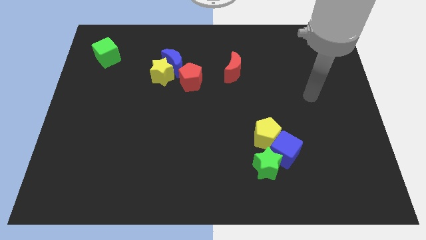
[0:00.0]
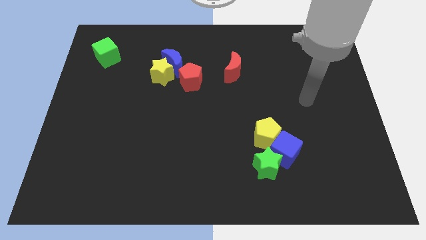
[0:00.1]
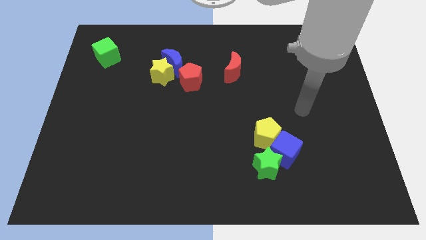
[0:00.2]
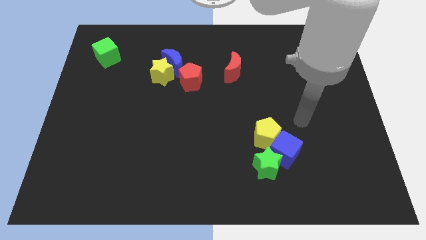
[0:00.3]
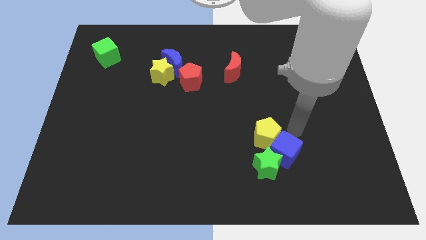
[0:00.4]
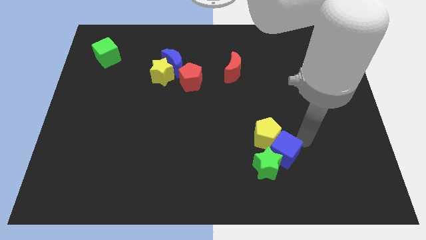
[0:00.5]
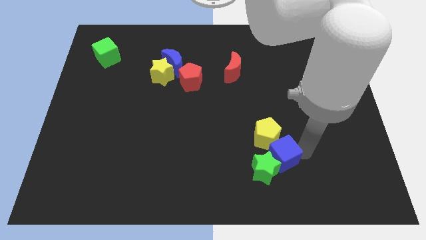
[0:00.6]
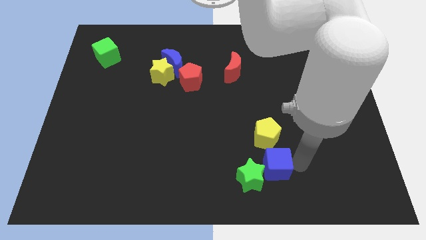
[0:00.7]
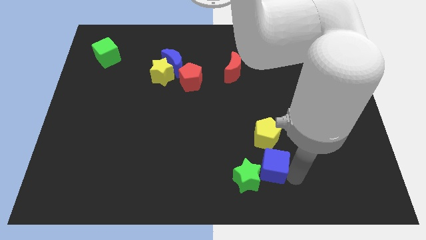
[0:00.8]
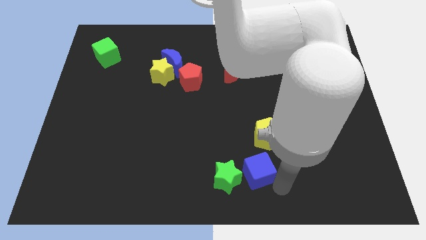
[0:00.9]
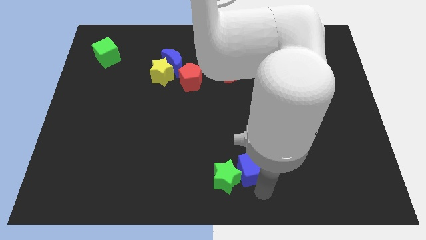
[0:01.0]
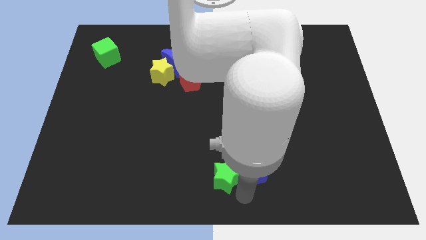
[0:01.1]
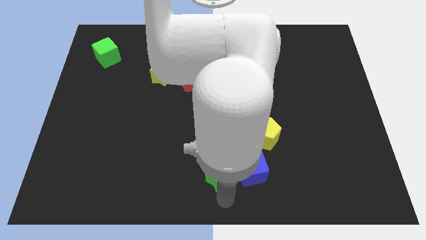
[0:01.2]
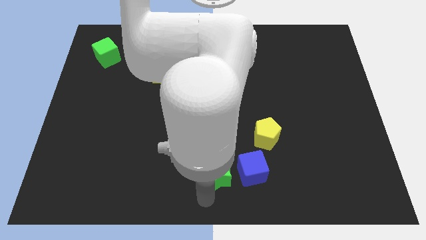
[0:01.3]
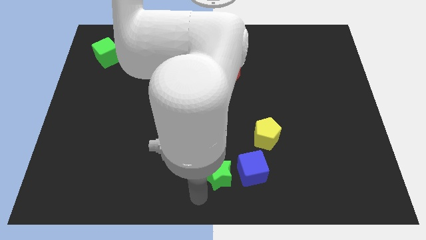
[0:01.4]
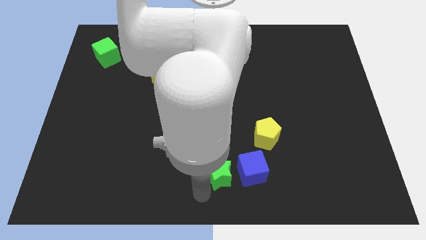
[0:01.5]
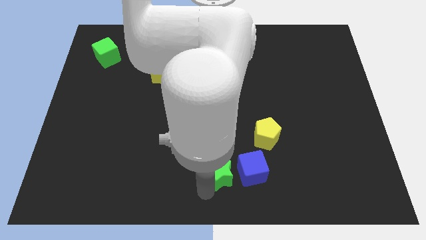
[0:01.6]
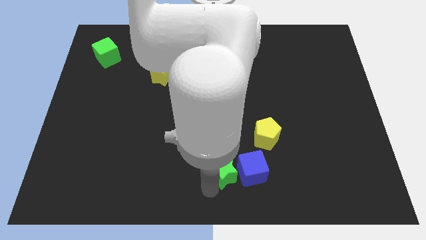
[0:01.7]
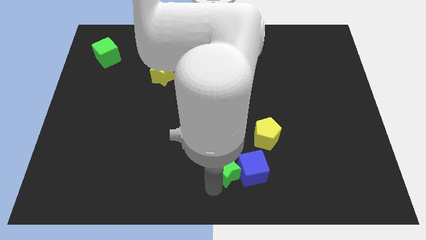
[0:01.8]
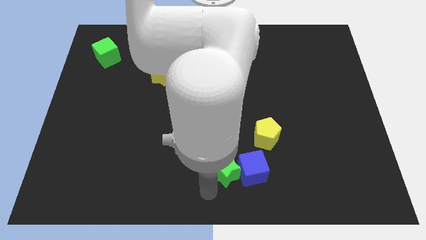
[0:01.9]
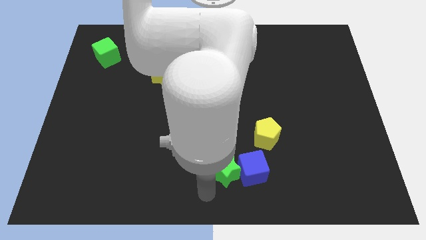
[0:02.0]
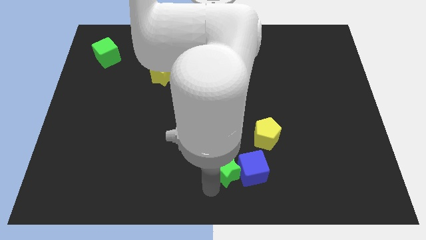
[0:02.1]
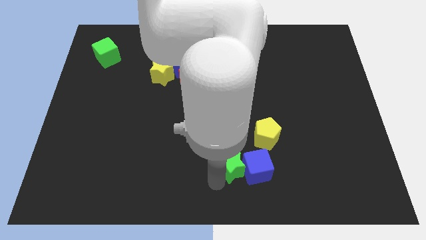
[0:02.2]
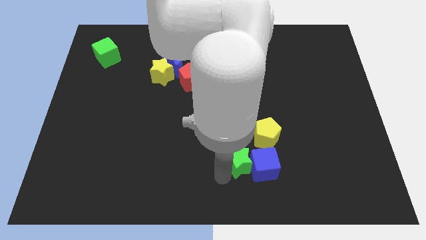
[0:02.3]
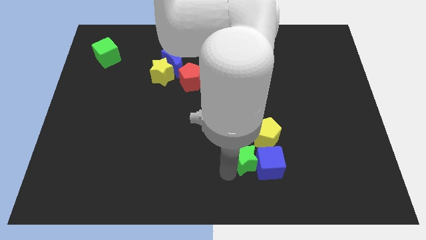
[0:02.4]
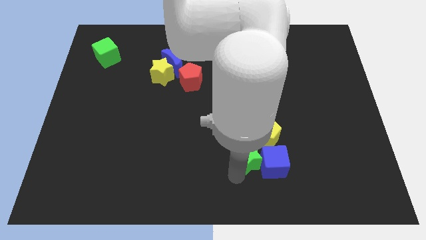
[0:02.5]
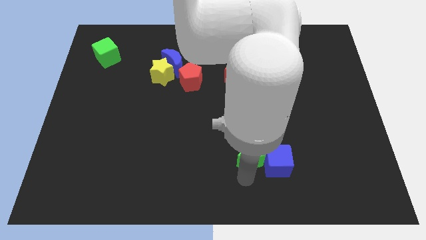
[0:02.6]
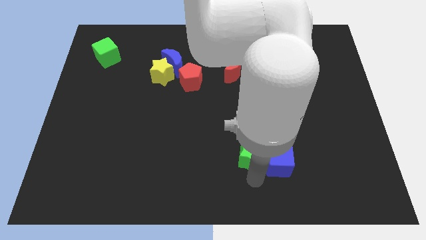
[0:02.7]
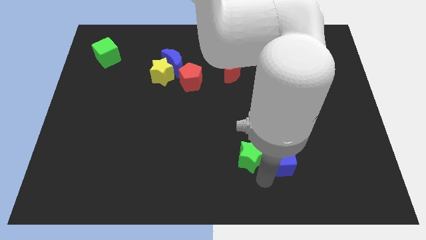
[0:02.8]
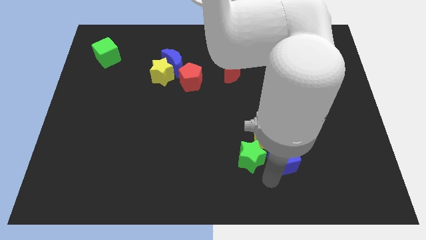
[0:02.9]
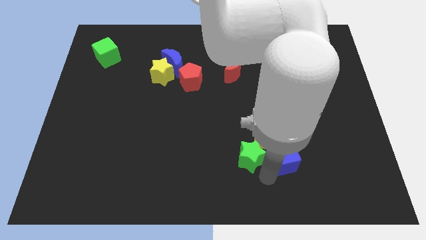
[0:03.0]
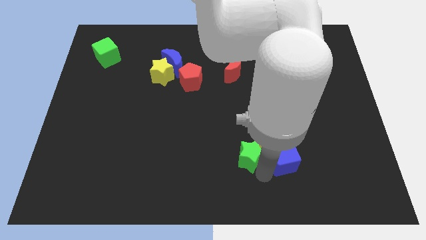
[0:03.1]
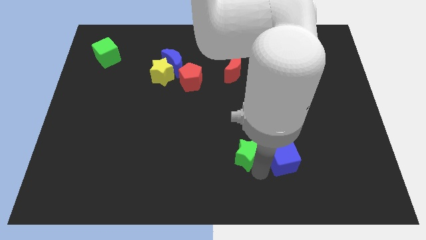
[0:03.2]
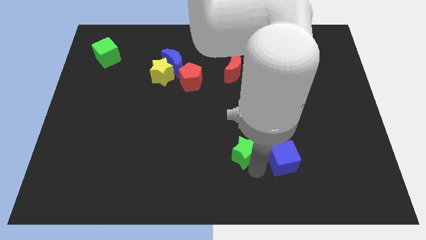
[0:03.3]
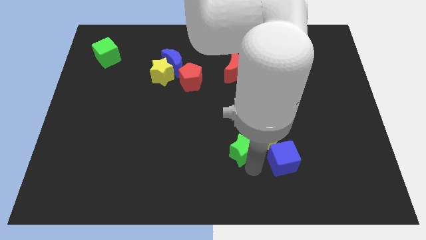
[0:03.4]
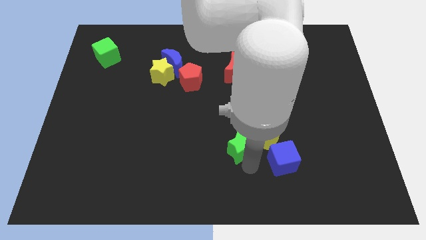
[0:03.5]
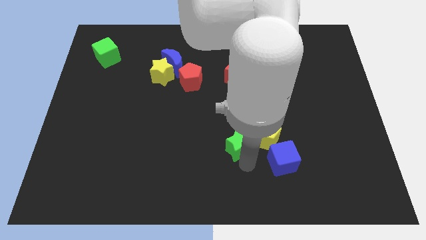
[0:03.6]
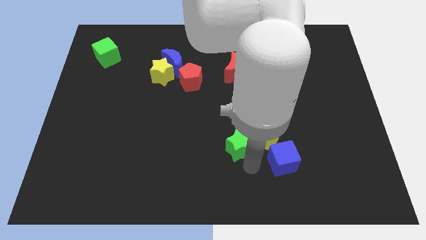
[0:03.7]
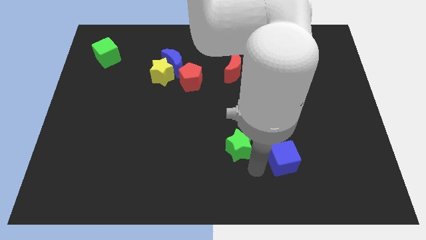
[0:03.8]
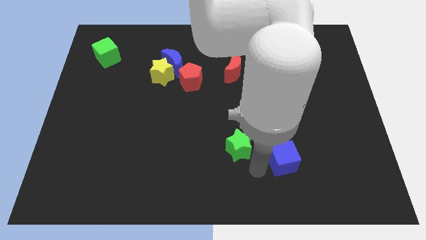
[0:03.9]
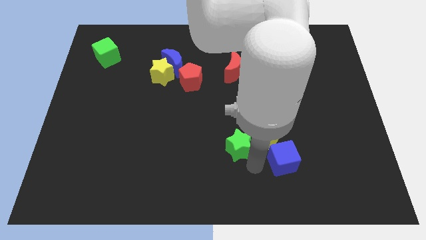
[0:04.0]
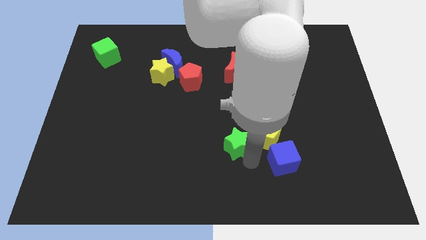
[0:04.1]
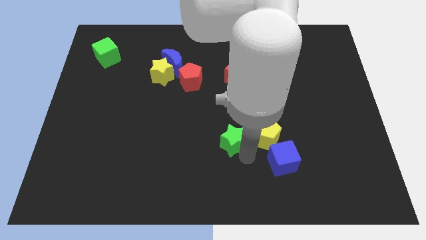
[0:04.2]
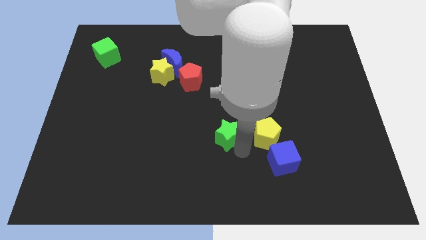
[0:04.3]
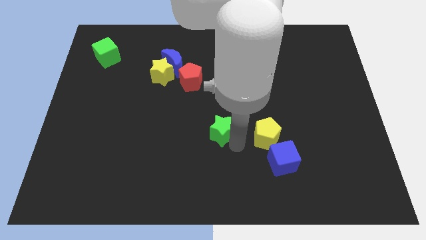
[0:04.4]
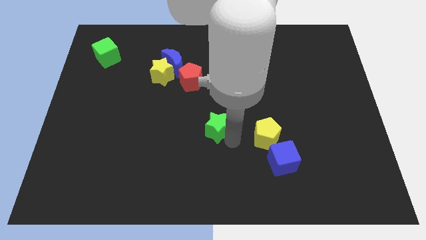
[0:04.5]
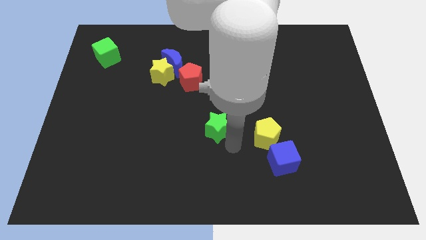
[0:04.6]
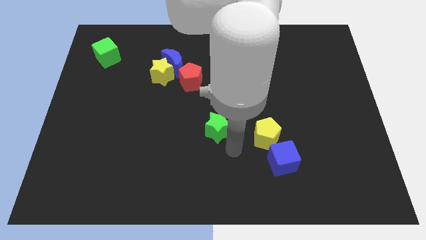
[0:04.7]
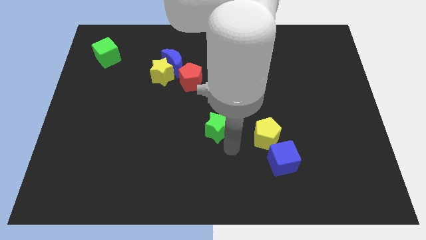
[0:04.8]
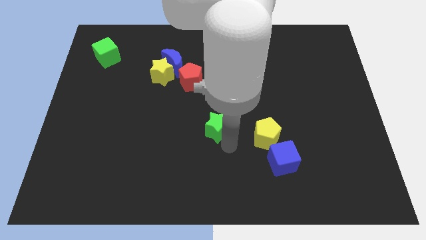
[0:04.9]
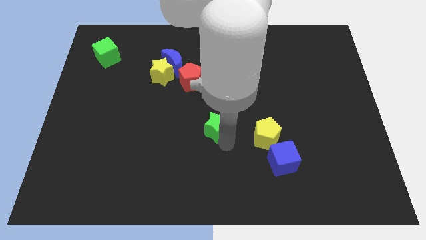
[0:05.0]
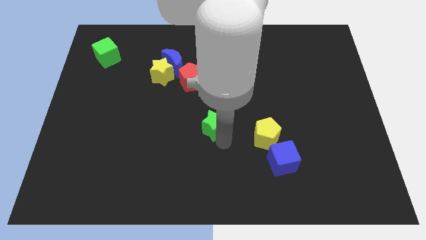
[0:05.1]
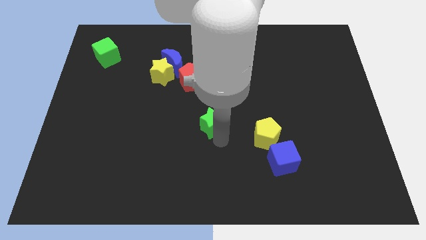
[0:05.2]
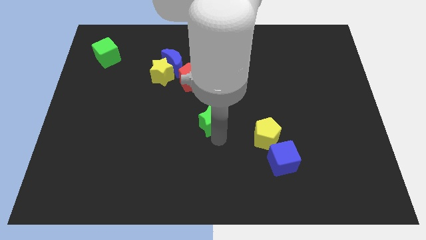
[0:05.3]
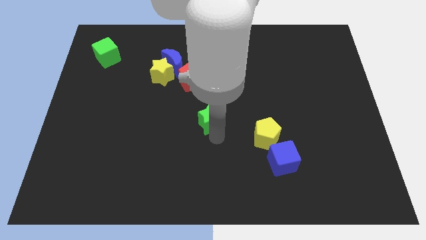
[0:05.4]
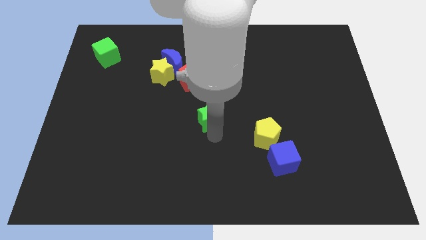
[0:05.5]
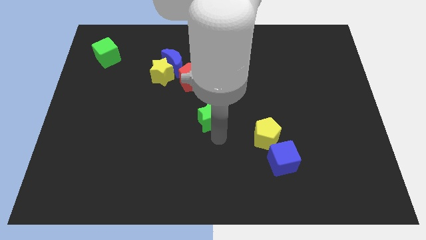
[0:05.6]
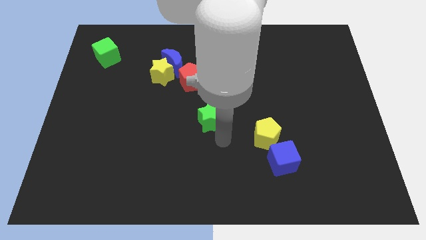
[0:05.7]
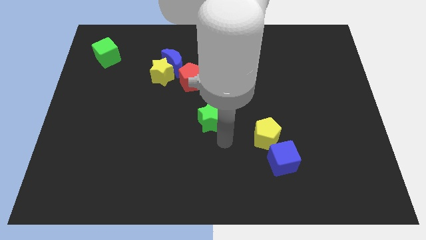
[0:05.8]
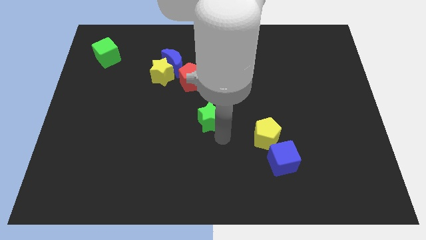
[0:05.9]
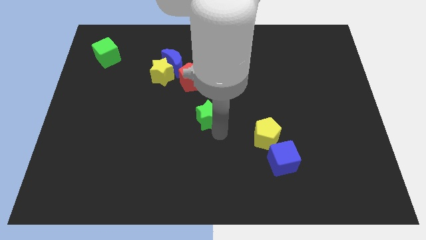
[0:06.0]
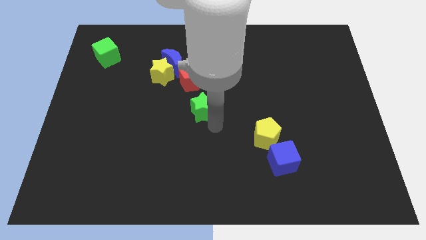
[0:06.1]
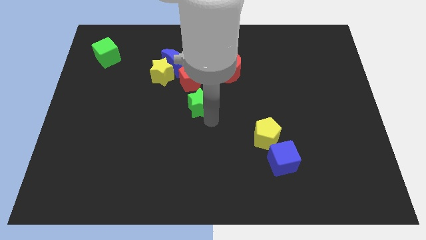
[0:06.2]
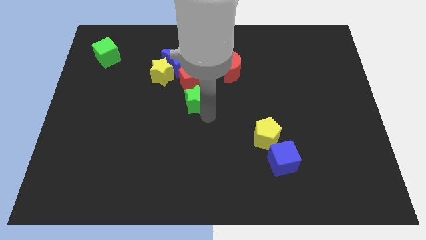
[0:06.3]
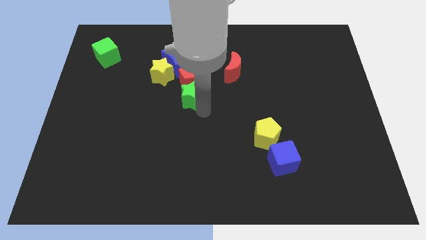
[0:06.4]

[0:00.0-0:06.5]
slide the green star to the red pentagon
